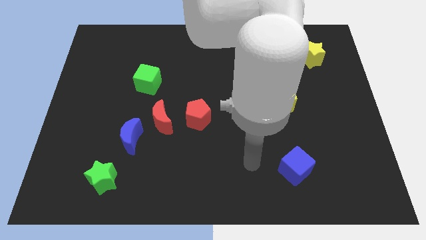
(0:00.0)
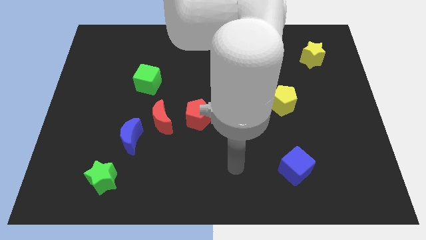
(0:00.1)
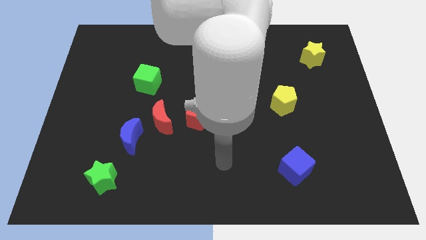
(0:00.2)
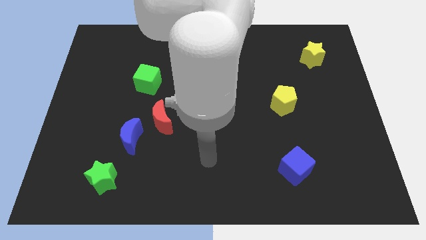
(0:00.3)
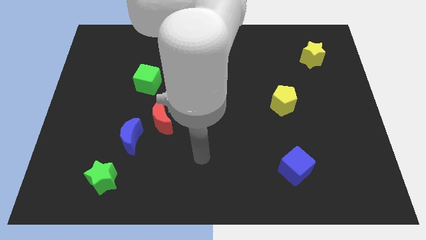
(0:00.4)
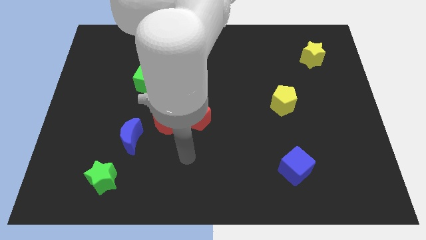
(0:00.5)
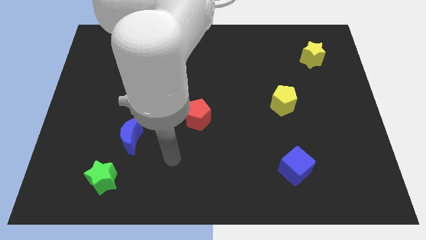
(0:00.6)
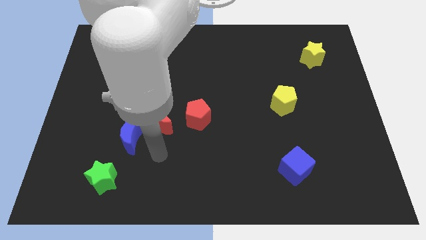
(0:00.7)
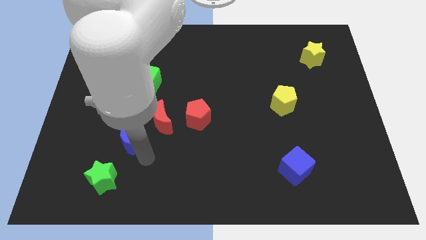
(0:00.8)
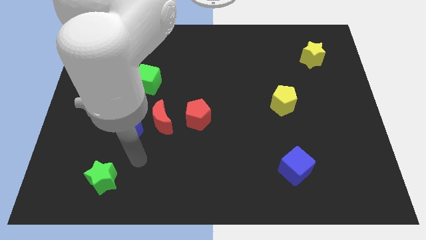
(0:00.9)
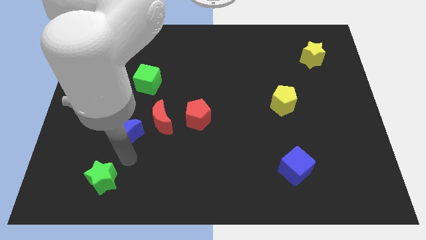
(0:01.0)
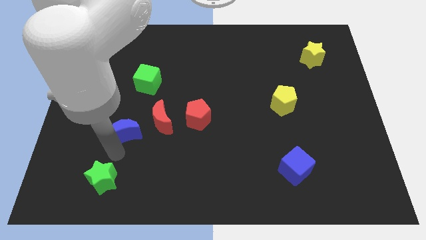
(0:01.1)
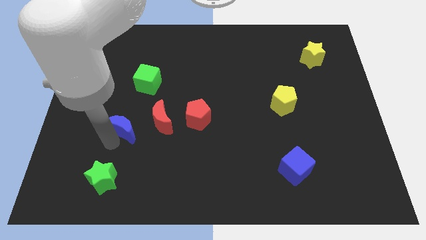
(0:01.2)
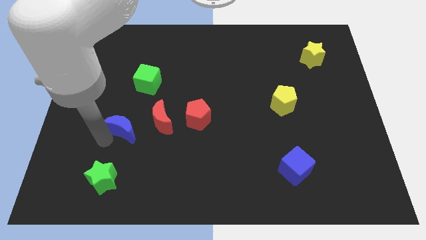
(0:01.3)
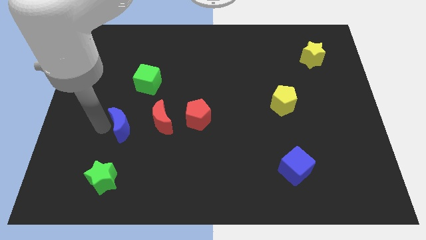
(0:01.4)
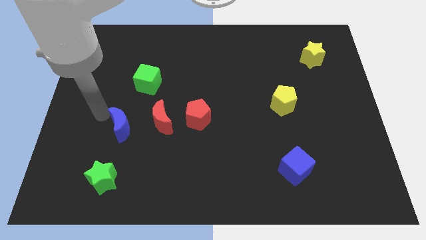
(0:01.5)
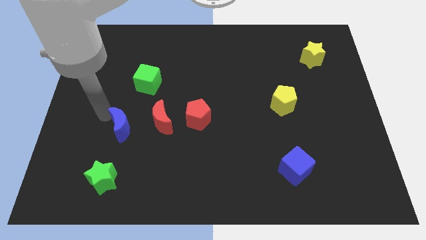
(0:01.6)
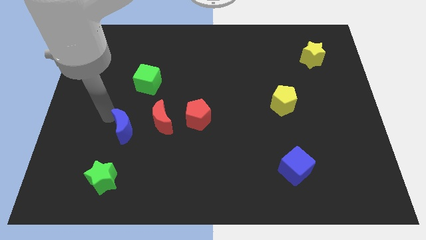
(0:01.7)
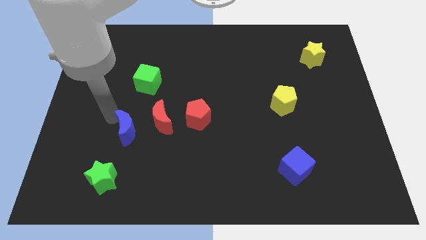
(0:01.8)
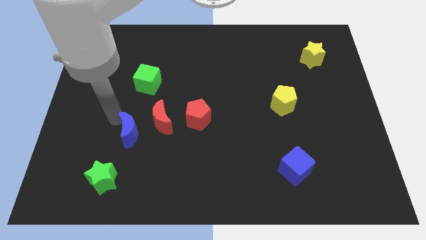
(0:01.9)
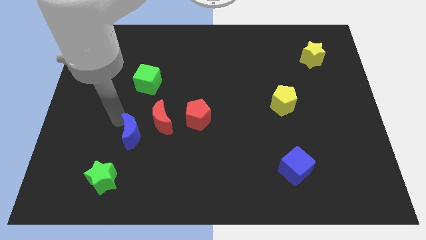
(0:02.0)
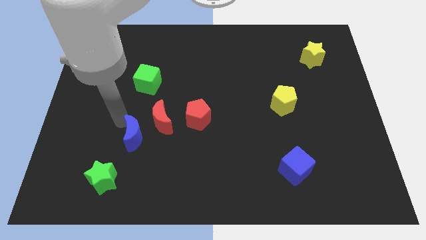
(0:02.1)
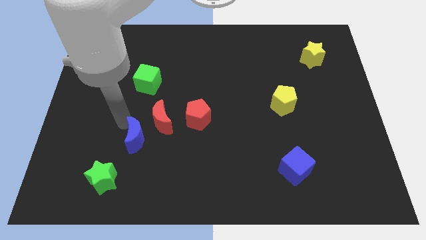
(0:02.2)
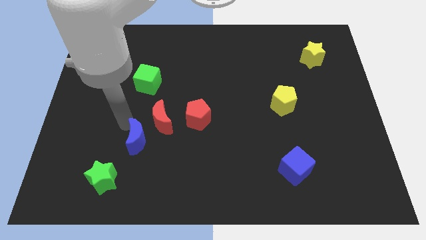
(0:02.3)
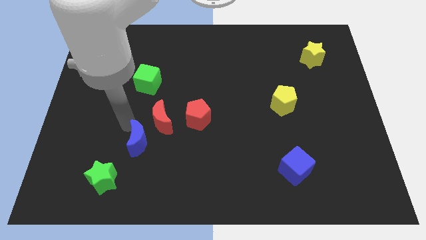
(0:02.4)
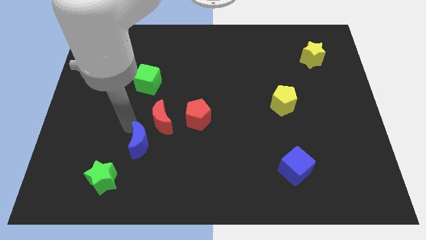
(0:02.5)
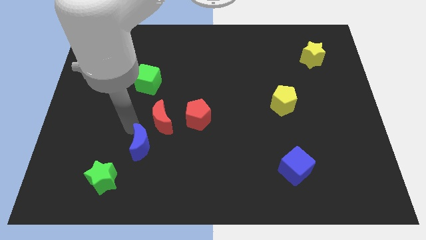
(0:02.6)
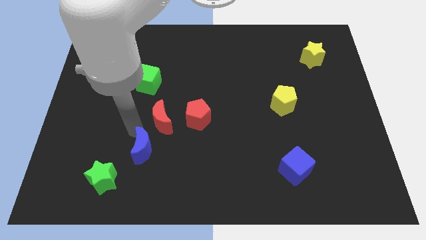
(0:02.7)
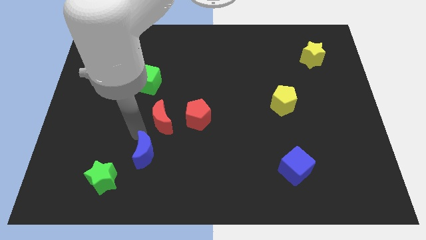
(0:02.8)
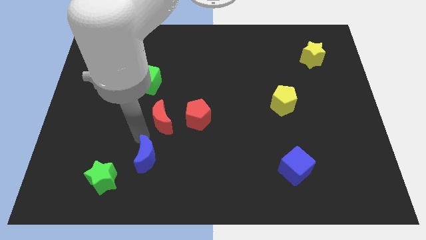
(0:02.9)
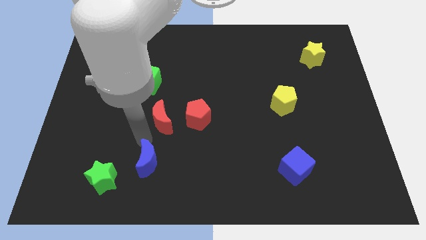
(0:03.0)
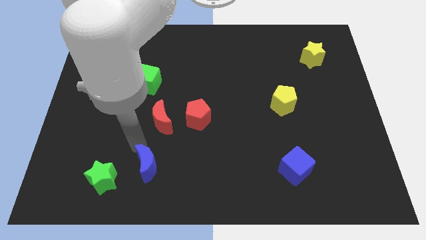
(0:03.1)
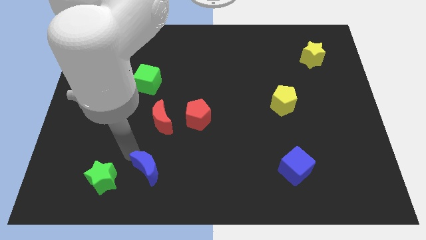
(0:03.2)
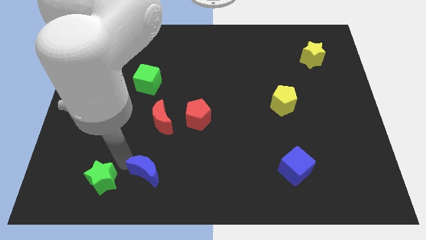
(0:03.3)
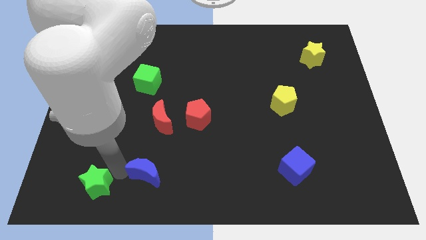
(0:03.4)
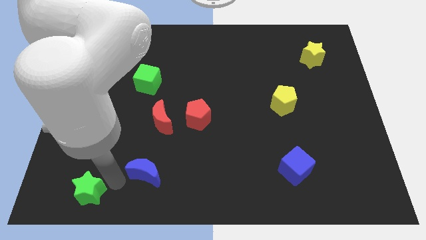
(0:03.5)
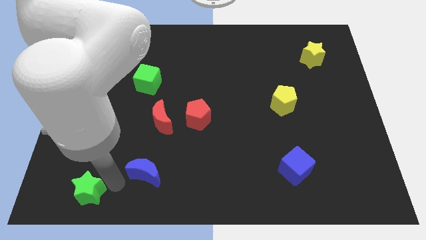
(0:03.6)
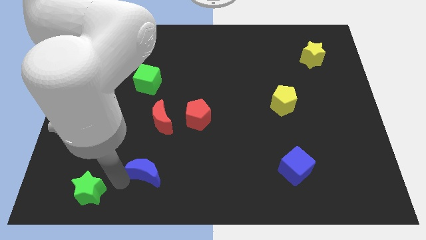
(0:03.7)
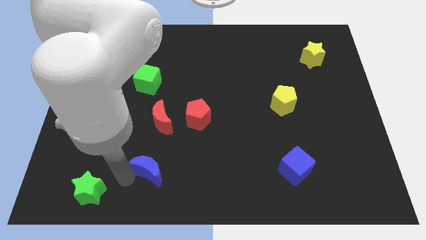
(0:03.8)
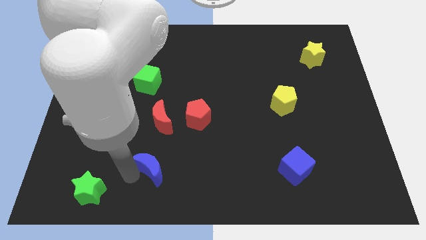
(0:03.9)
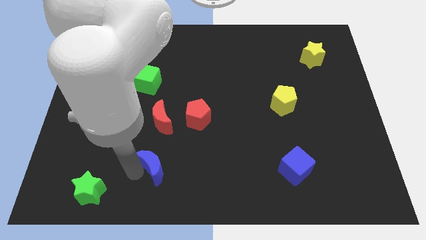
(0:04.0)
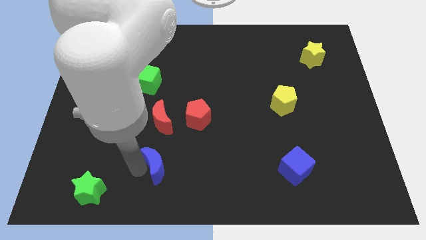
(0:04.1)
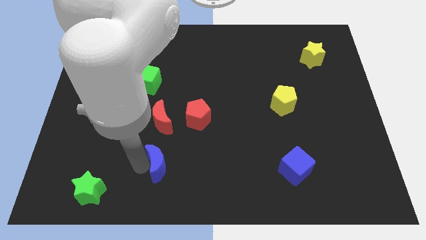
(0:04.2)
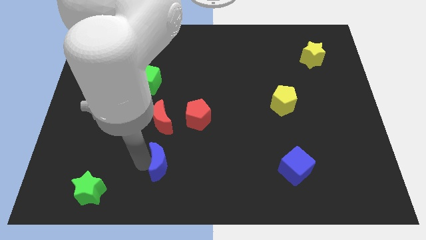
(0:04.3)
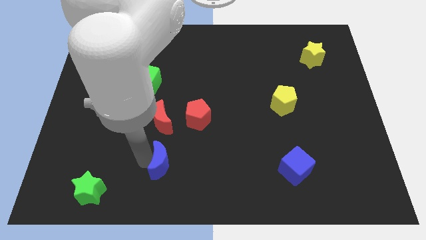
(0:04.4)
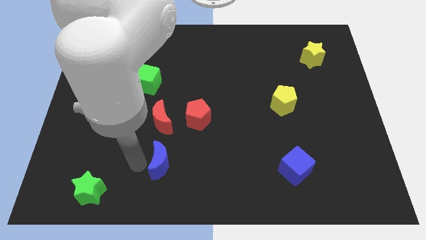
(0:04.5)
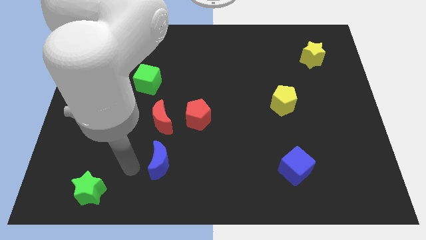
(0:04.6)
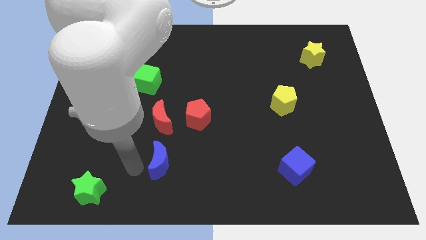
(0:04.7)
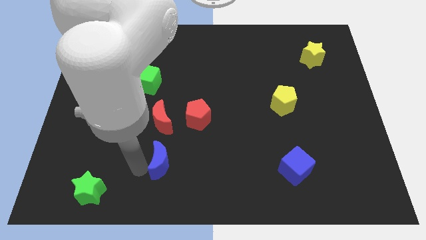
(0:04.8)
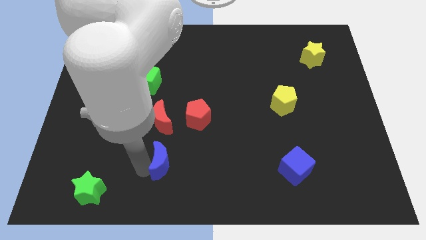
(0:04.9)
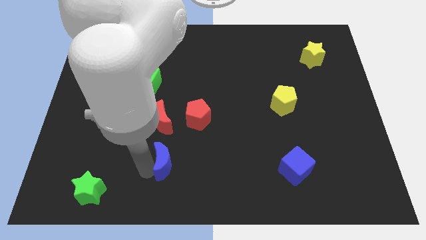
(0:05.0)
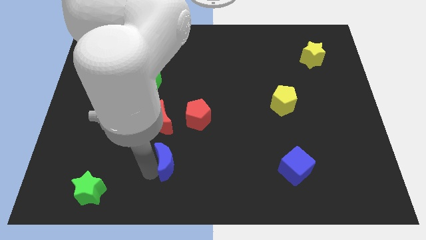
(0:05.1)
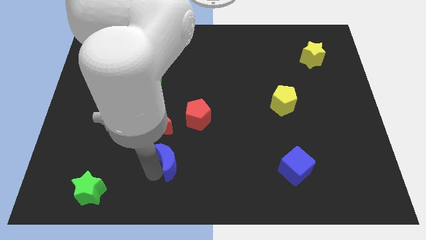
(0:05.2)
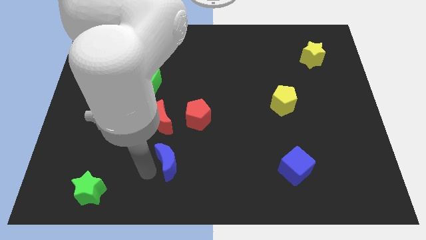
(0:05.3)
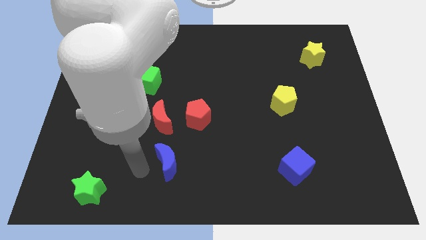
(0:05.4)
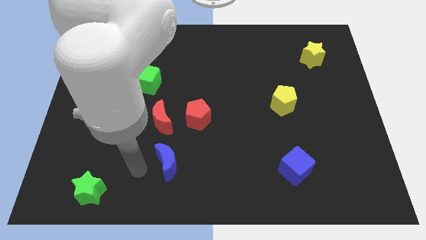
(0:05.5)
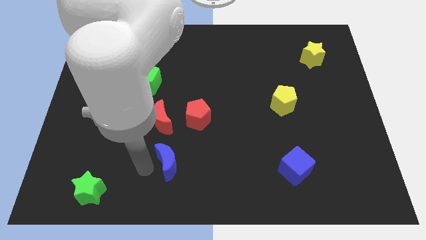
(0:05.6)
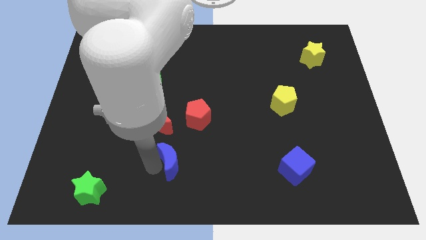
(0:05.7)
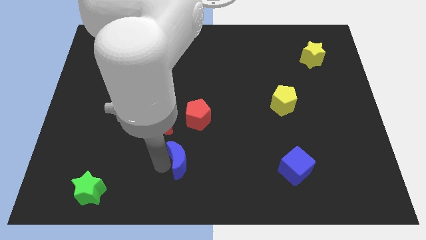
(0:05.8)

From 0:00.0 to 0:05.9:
move the blue moon to the bottom of the red pentagon

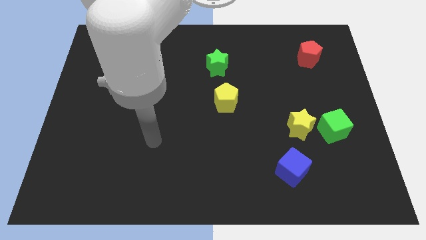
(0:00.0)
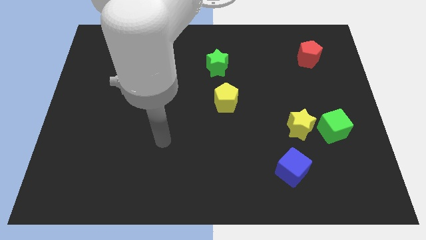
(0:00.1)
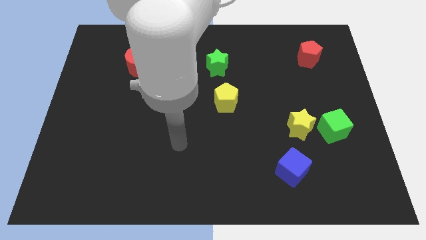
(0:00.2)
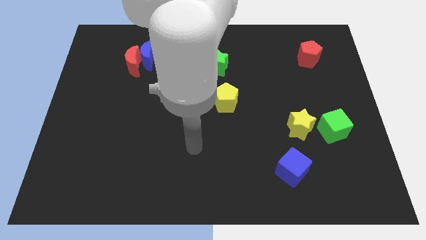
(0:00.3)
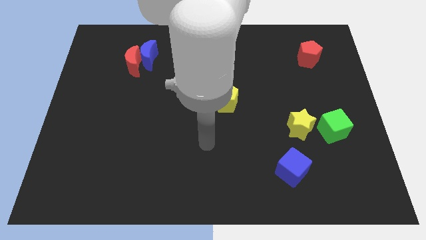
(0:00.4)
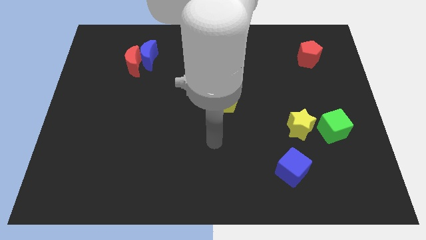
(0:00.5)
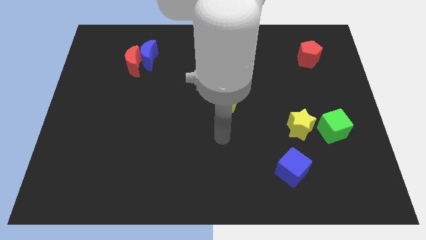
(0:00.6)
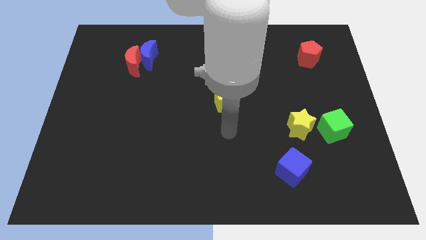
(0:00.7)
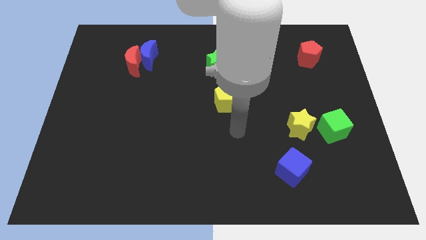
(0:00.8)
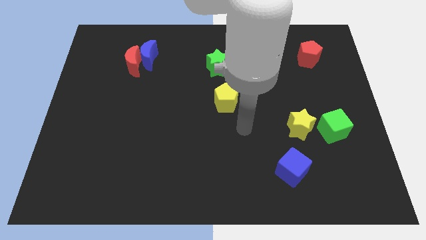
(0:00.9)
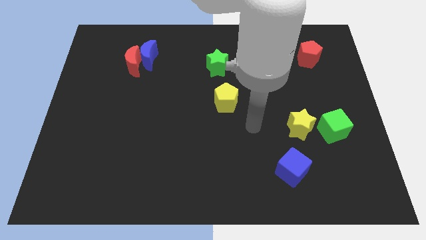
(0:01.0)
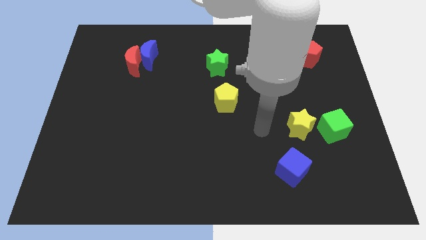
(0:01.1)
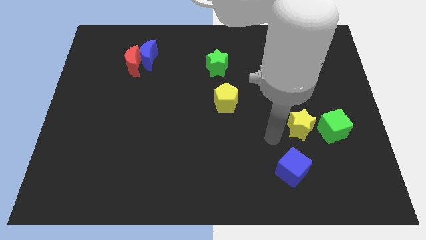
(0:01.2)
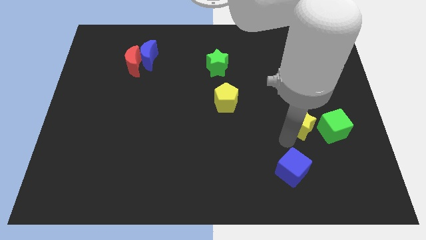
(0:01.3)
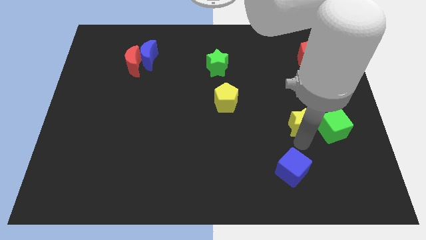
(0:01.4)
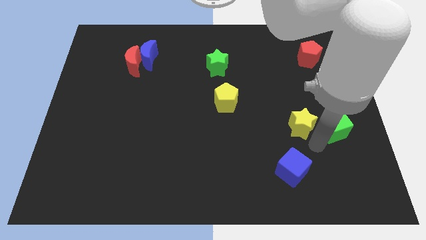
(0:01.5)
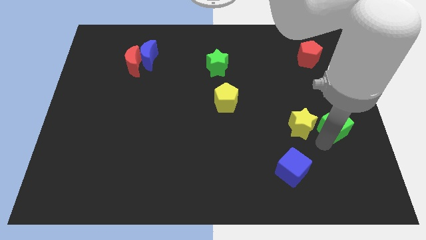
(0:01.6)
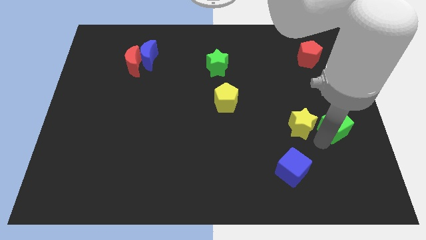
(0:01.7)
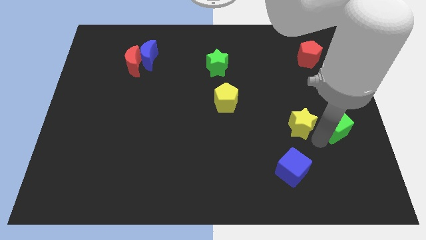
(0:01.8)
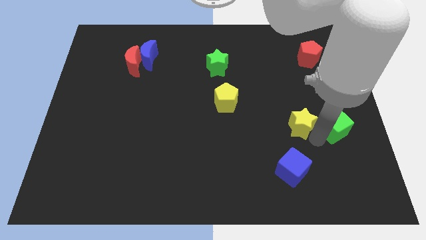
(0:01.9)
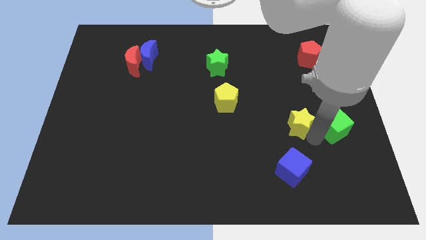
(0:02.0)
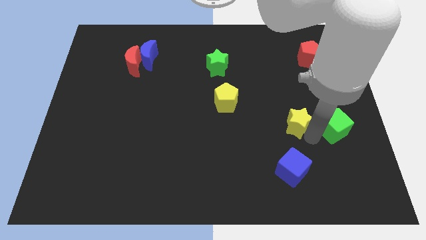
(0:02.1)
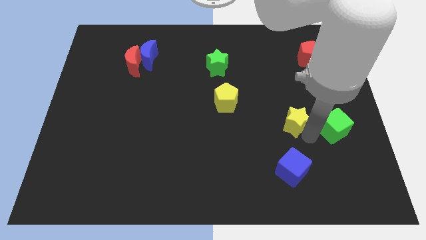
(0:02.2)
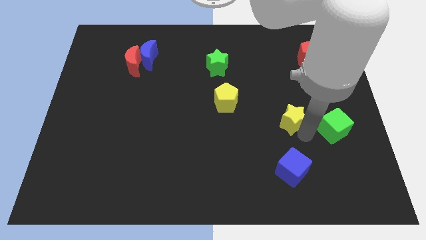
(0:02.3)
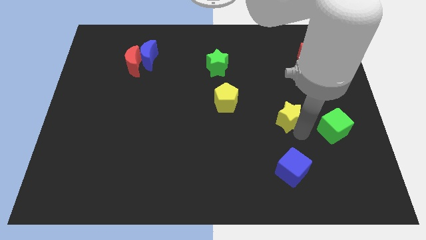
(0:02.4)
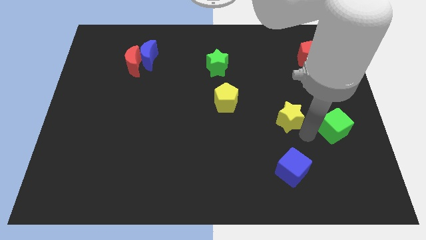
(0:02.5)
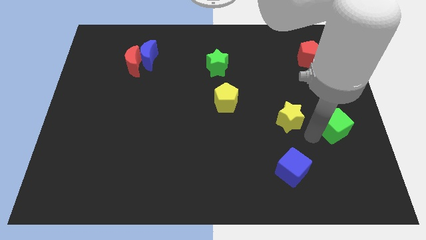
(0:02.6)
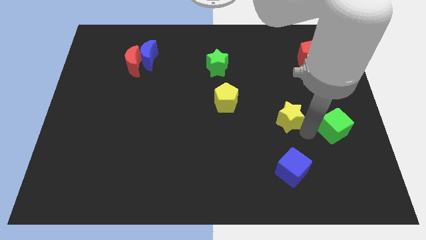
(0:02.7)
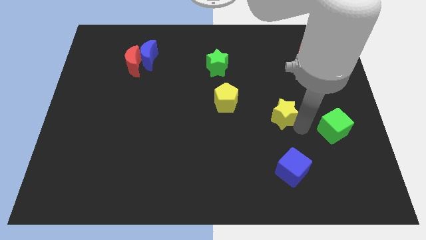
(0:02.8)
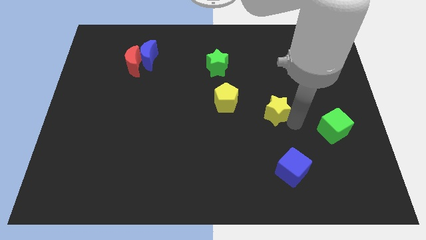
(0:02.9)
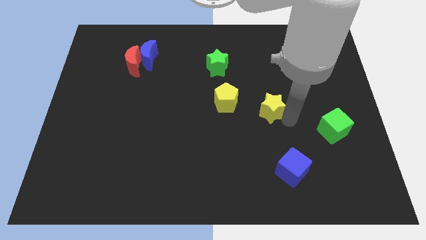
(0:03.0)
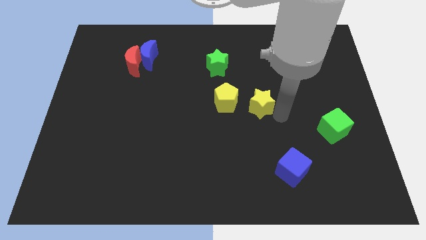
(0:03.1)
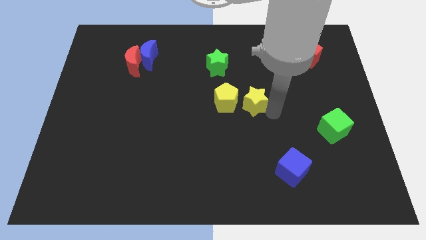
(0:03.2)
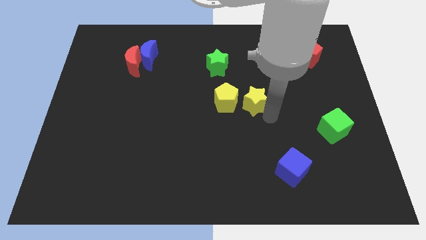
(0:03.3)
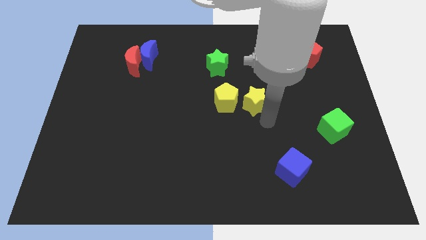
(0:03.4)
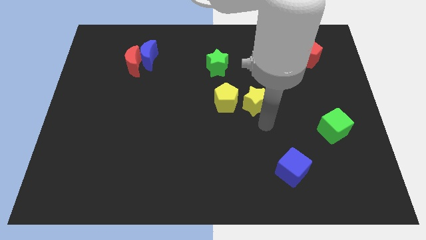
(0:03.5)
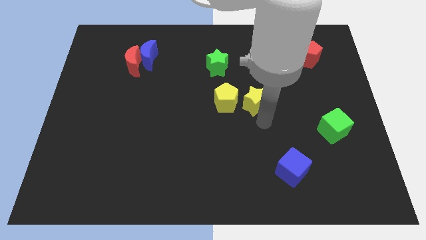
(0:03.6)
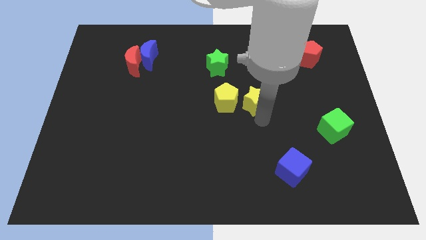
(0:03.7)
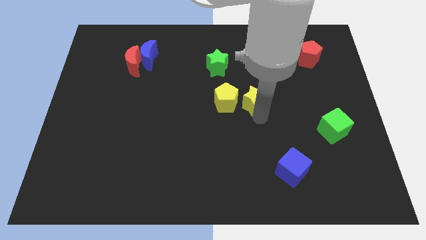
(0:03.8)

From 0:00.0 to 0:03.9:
move the yellow star to the top right of the yellow pentagon
